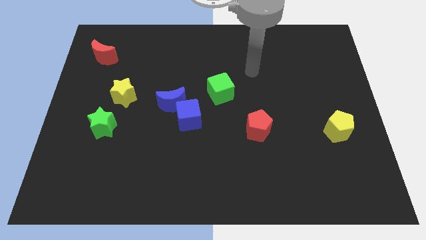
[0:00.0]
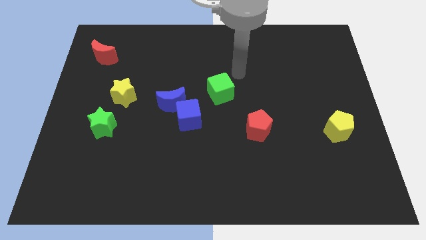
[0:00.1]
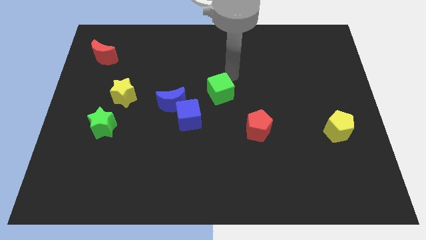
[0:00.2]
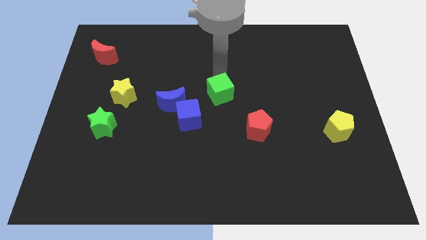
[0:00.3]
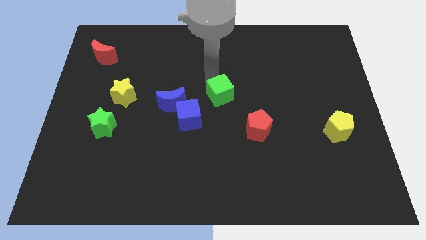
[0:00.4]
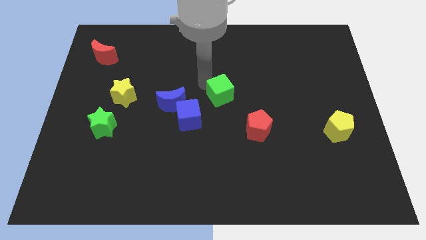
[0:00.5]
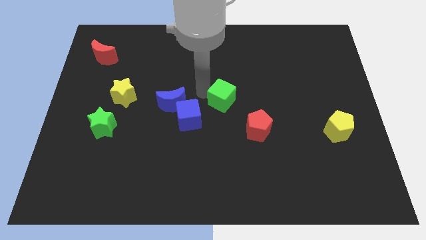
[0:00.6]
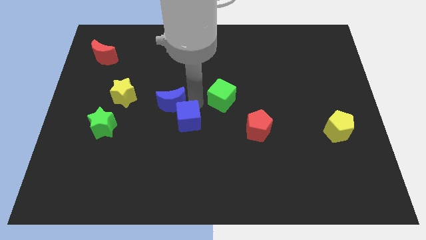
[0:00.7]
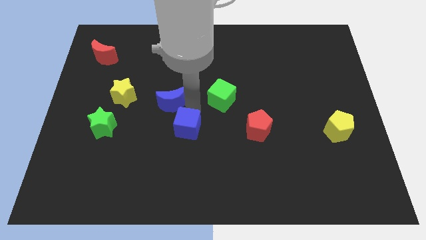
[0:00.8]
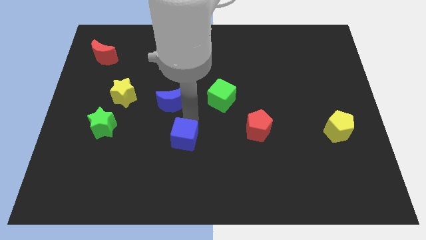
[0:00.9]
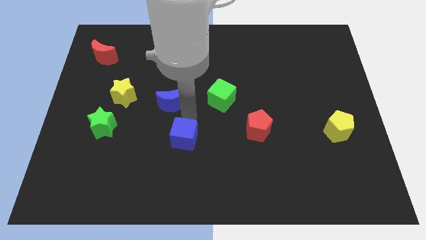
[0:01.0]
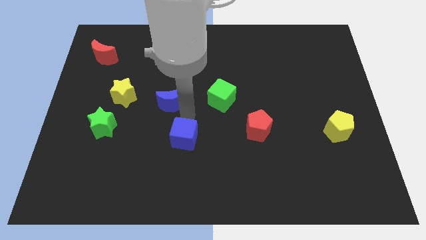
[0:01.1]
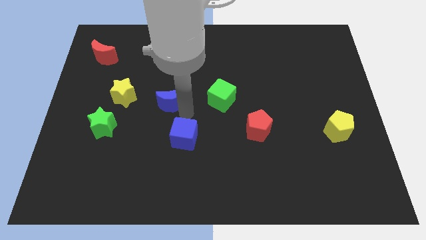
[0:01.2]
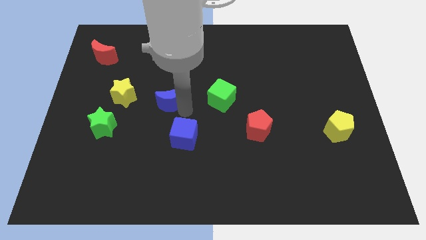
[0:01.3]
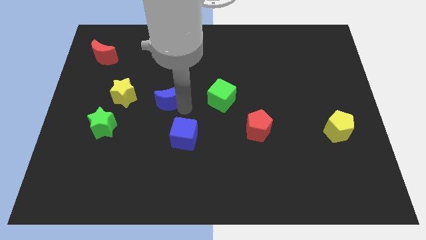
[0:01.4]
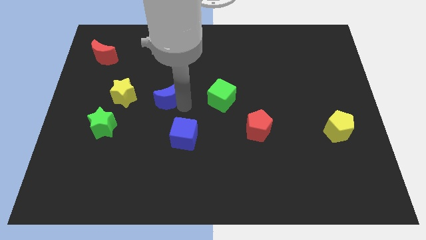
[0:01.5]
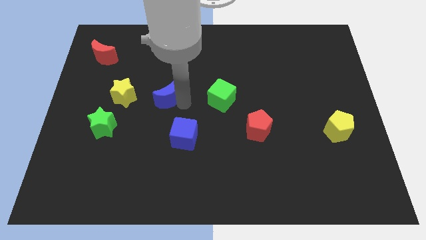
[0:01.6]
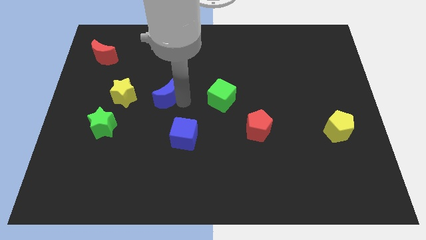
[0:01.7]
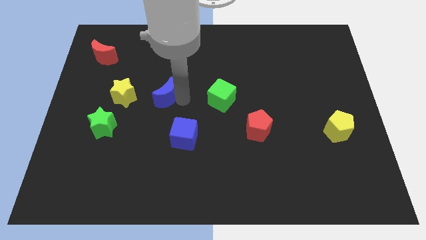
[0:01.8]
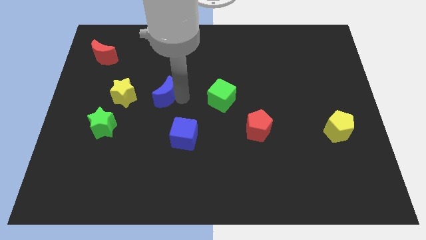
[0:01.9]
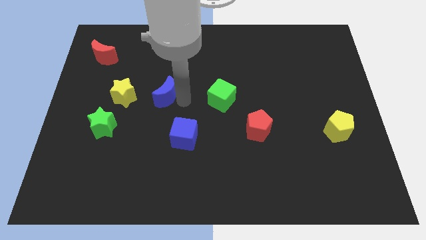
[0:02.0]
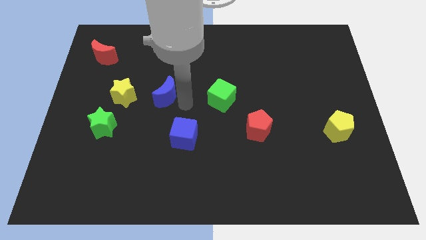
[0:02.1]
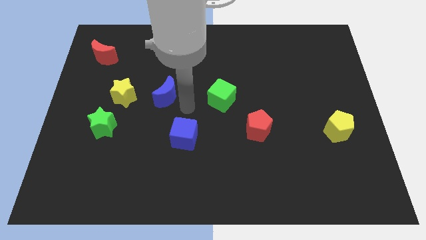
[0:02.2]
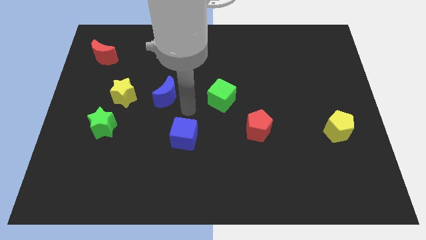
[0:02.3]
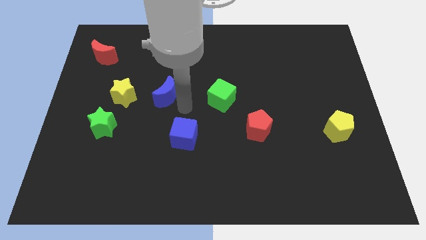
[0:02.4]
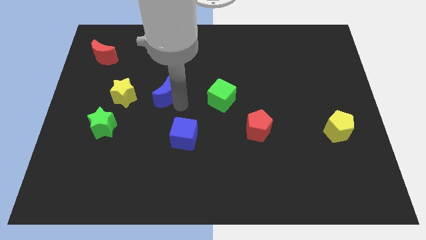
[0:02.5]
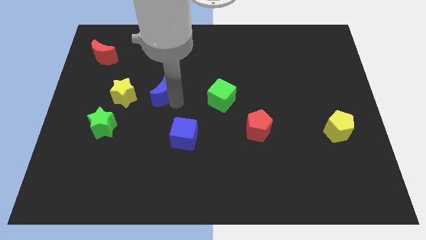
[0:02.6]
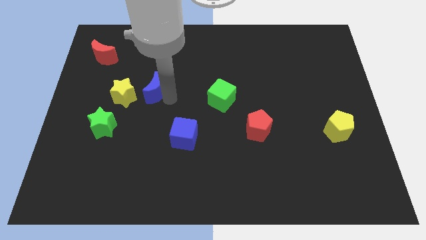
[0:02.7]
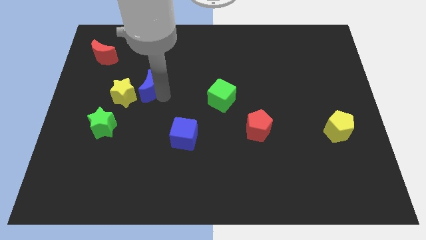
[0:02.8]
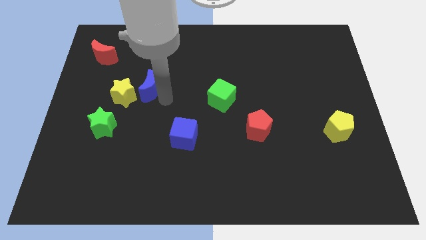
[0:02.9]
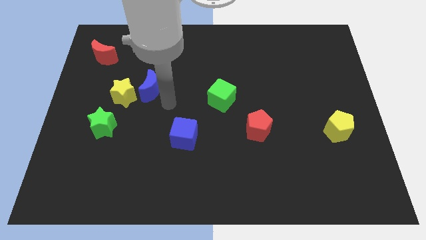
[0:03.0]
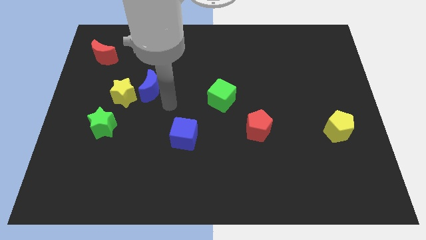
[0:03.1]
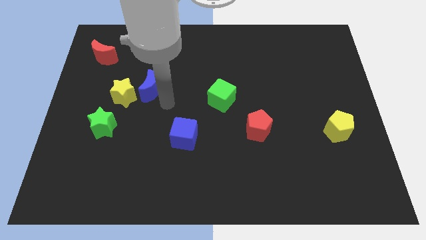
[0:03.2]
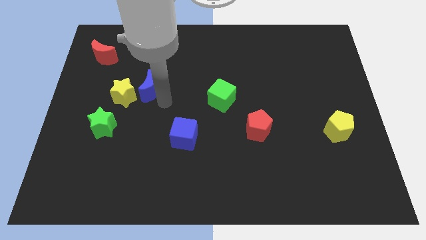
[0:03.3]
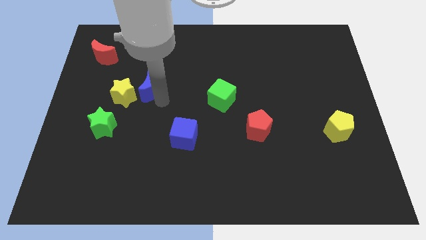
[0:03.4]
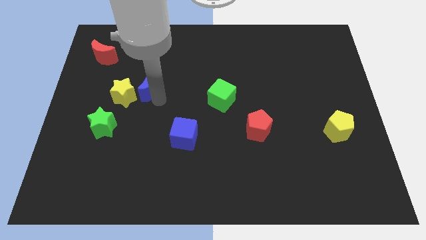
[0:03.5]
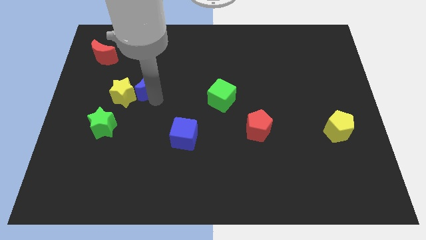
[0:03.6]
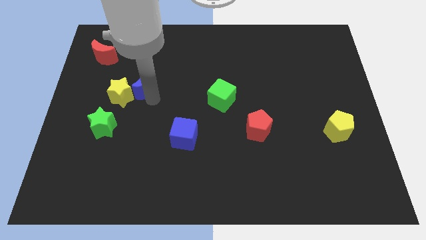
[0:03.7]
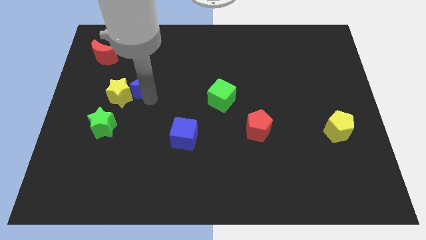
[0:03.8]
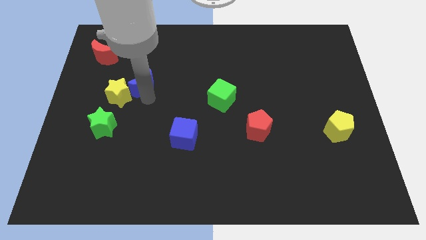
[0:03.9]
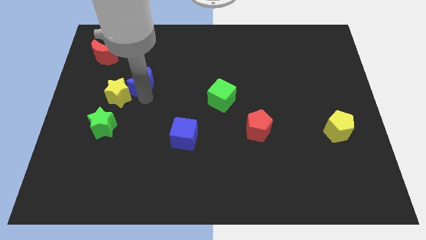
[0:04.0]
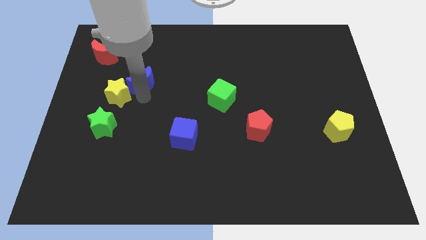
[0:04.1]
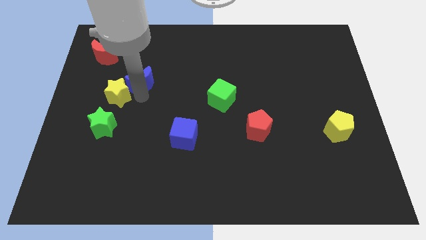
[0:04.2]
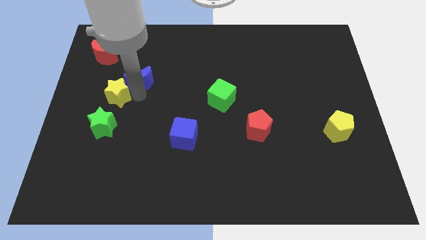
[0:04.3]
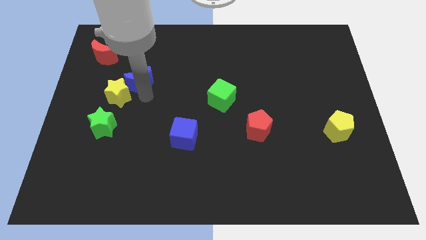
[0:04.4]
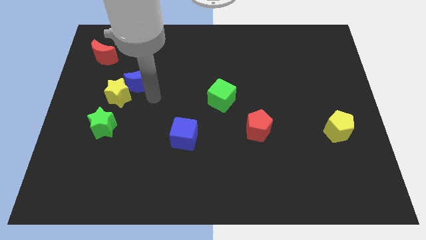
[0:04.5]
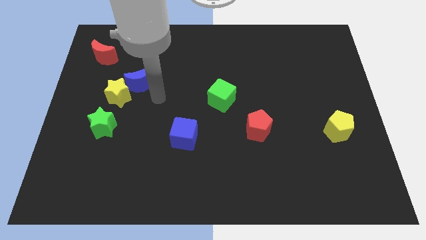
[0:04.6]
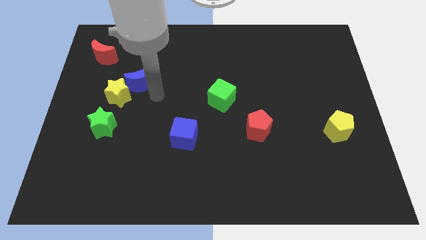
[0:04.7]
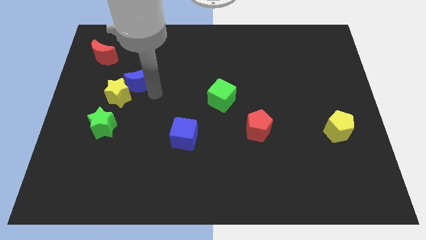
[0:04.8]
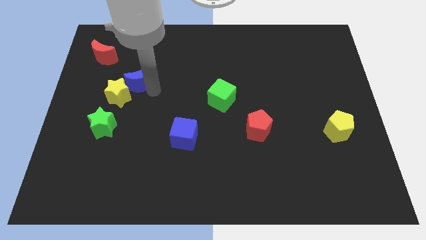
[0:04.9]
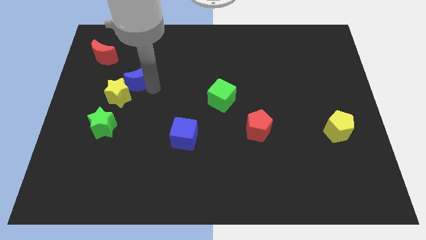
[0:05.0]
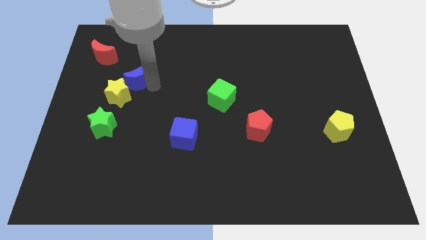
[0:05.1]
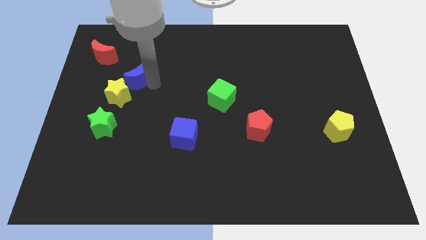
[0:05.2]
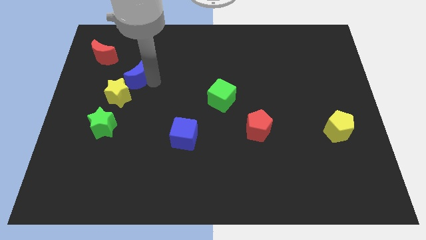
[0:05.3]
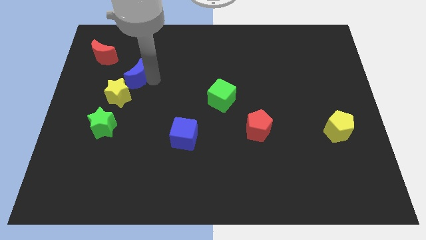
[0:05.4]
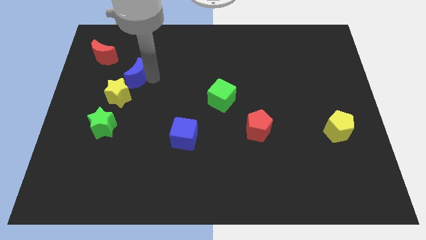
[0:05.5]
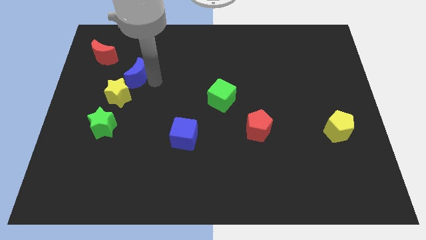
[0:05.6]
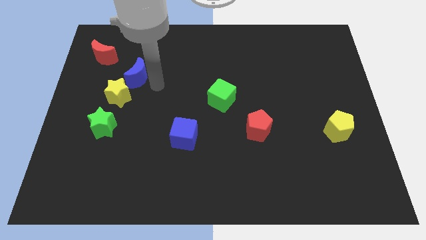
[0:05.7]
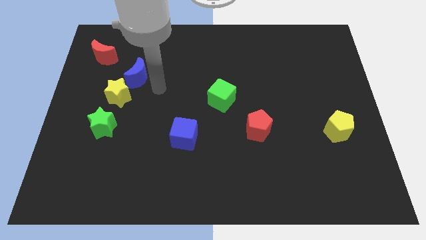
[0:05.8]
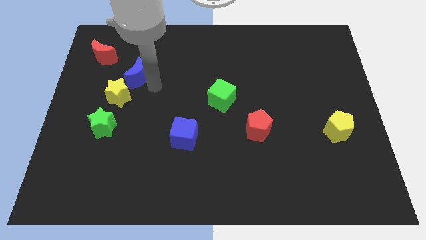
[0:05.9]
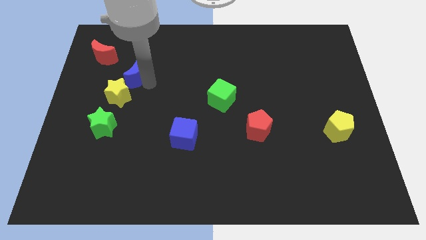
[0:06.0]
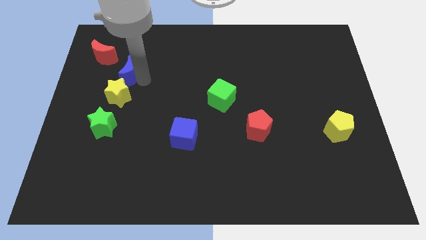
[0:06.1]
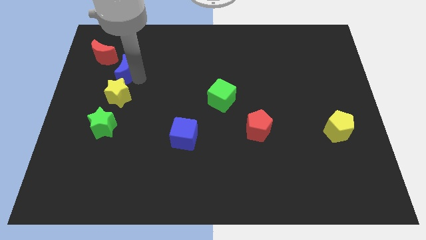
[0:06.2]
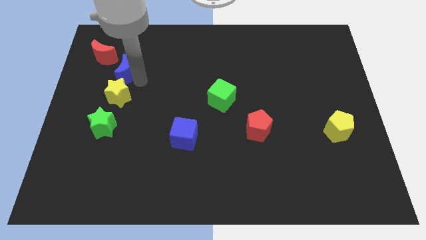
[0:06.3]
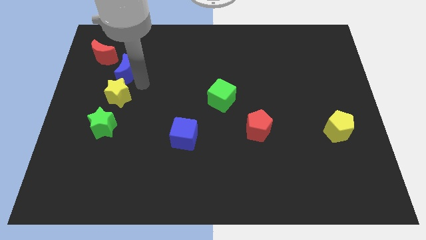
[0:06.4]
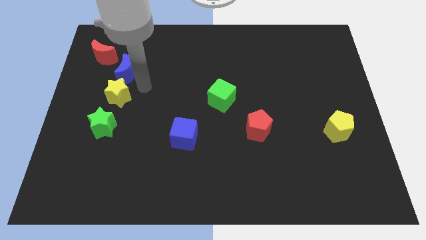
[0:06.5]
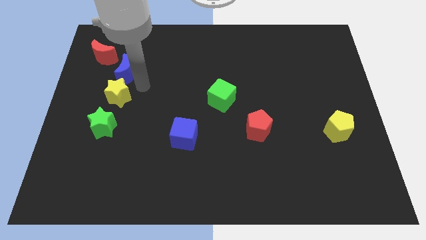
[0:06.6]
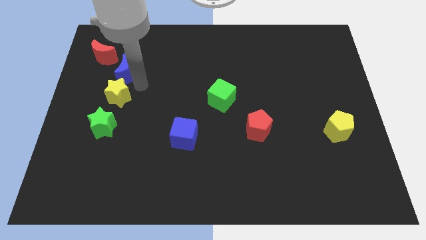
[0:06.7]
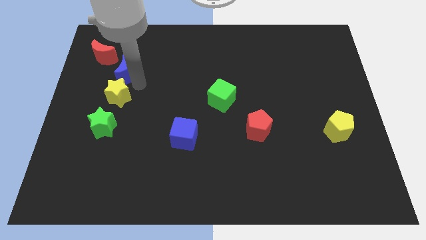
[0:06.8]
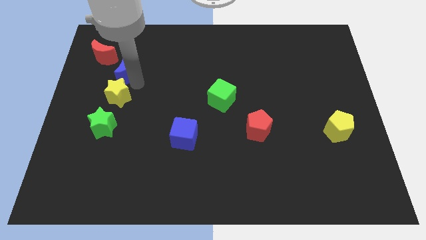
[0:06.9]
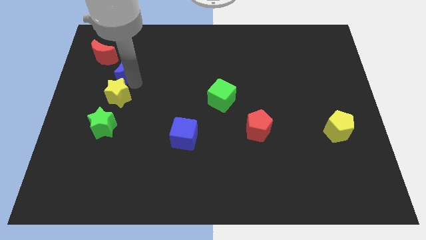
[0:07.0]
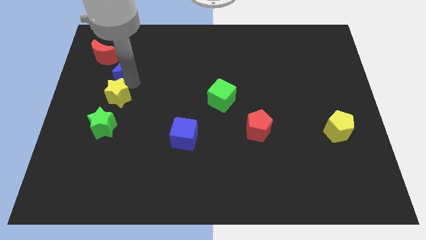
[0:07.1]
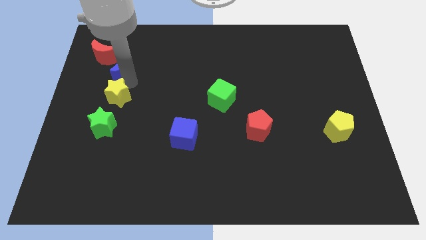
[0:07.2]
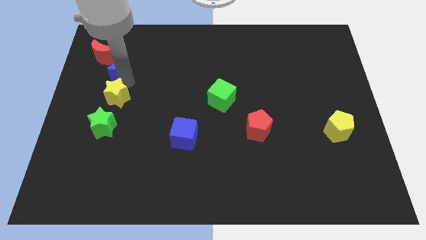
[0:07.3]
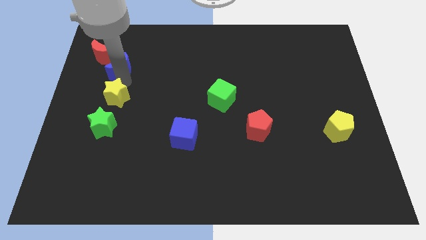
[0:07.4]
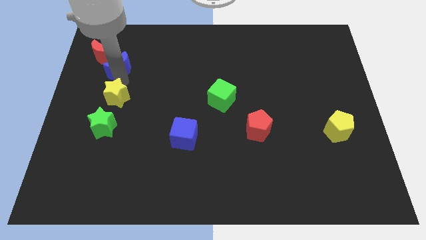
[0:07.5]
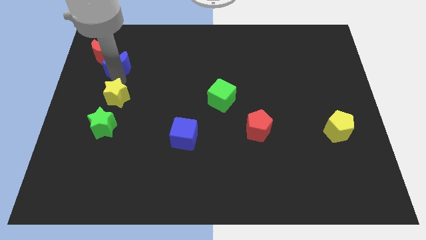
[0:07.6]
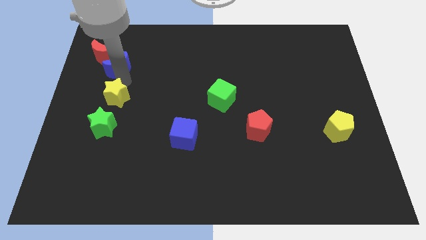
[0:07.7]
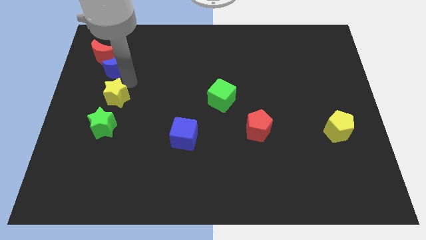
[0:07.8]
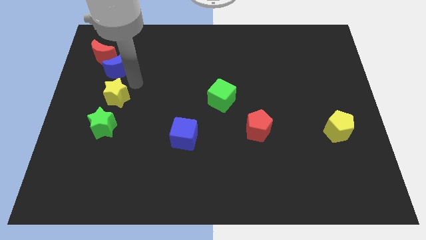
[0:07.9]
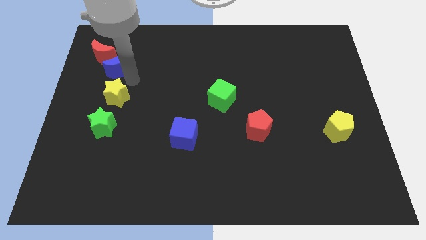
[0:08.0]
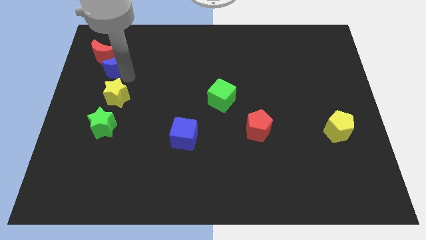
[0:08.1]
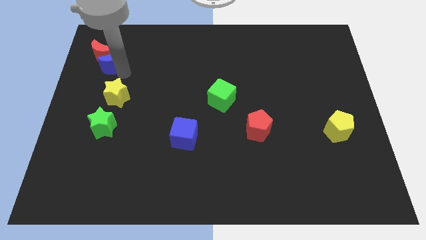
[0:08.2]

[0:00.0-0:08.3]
move the blue moon to the red moon
